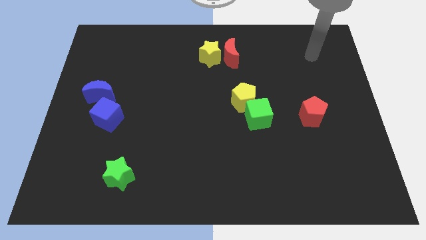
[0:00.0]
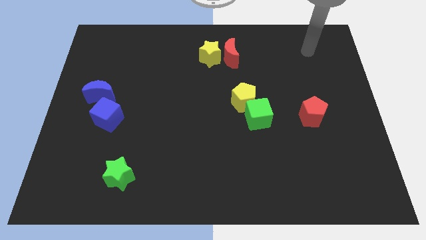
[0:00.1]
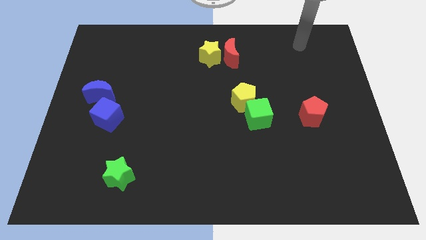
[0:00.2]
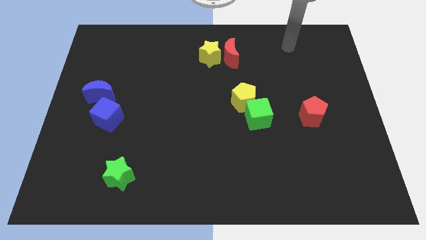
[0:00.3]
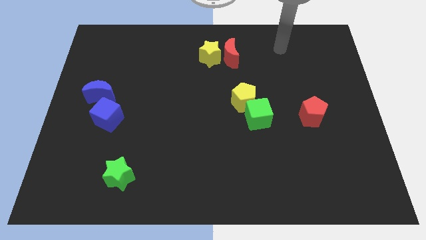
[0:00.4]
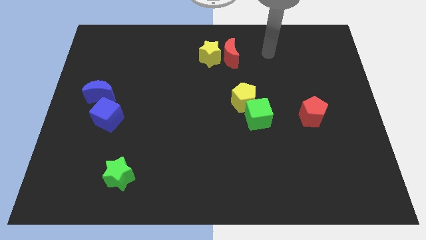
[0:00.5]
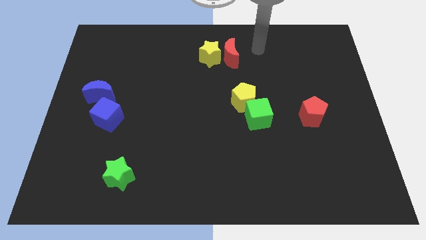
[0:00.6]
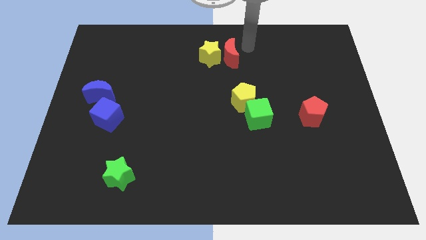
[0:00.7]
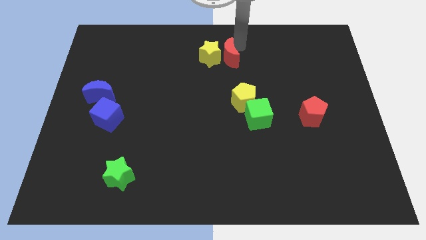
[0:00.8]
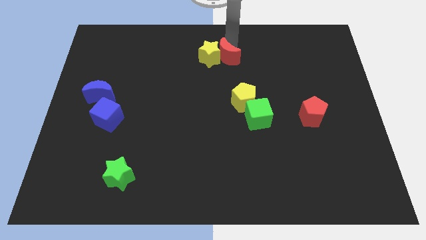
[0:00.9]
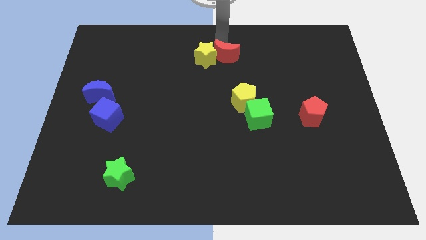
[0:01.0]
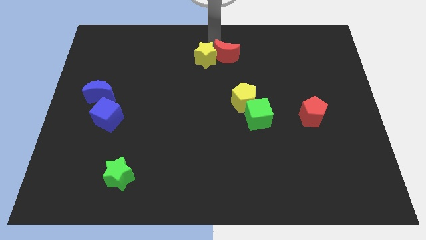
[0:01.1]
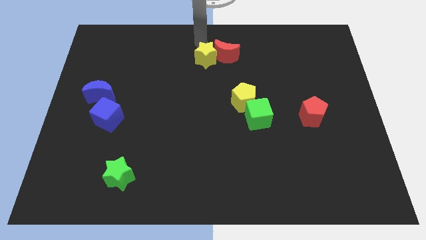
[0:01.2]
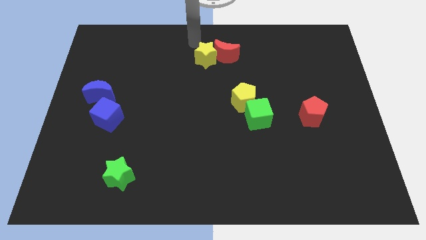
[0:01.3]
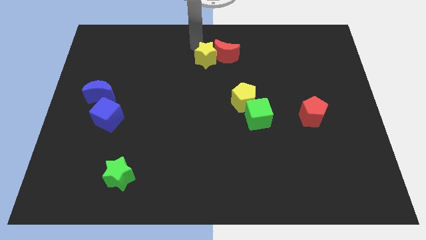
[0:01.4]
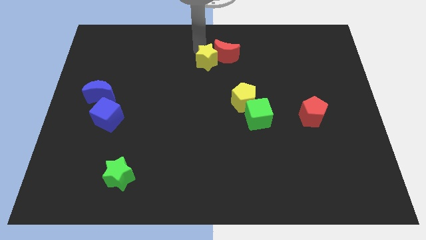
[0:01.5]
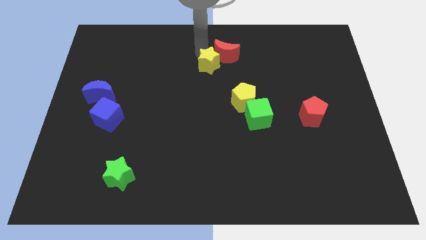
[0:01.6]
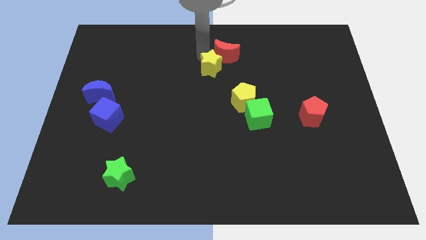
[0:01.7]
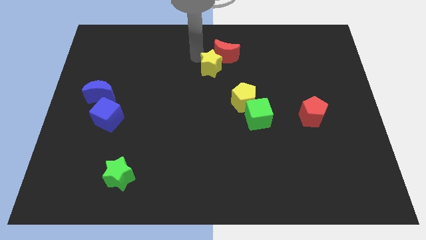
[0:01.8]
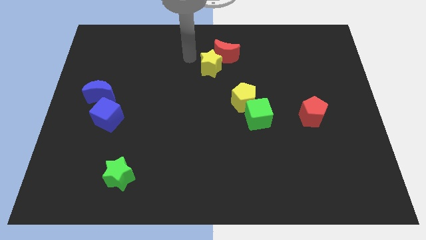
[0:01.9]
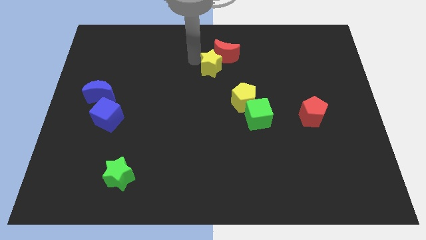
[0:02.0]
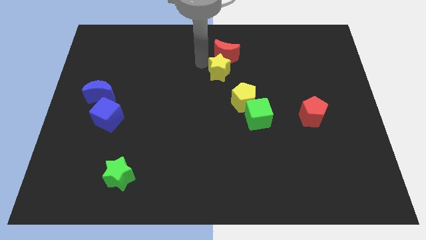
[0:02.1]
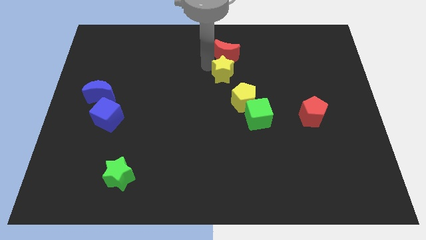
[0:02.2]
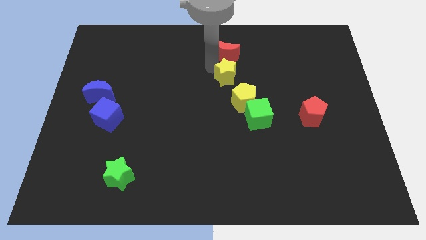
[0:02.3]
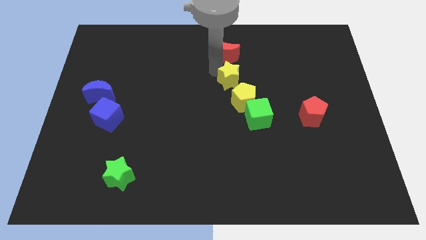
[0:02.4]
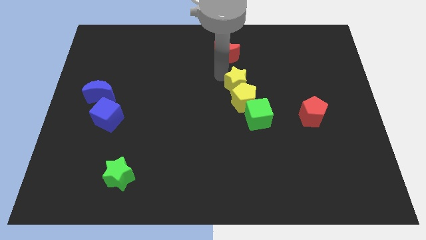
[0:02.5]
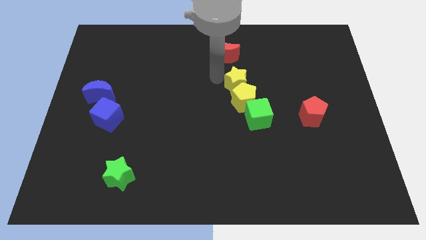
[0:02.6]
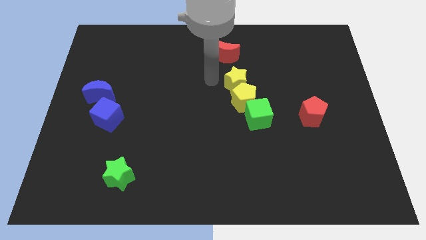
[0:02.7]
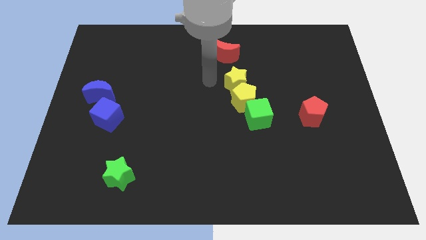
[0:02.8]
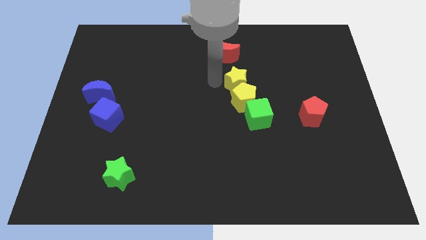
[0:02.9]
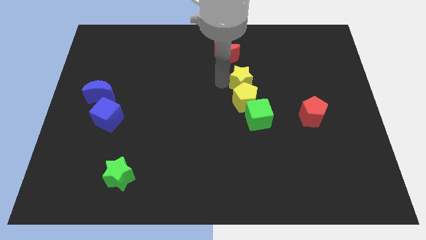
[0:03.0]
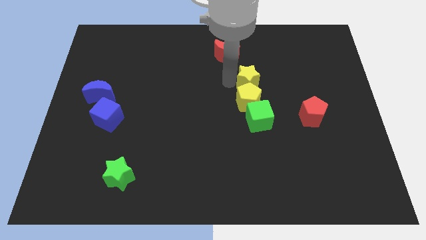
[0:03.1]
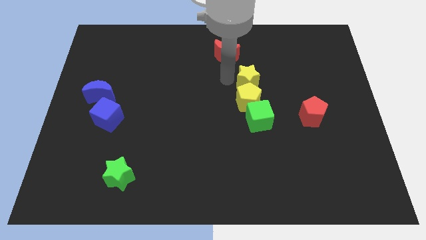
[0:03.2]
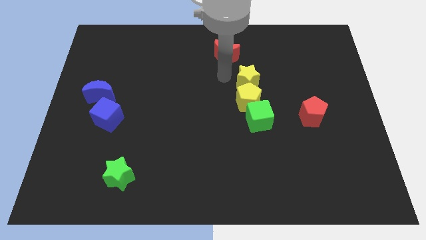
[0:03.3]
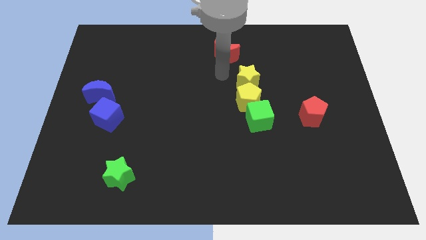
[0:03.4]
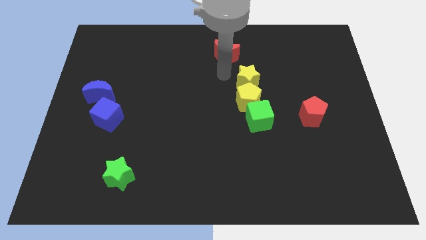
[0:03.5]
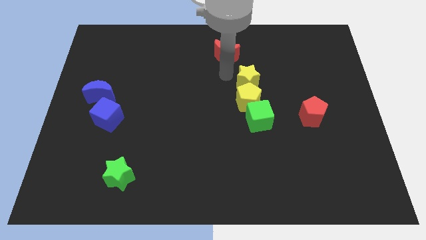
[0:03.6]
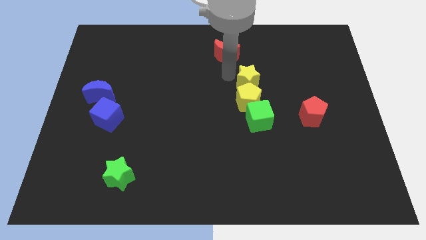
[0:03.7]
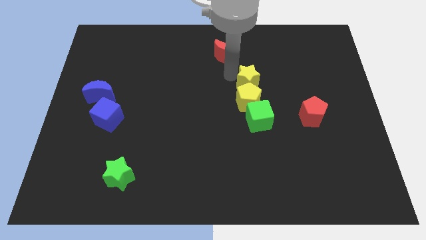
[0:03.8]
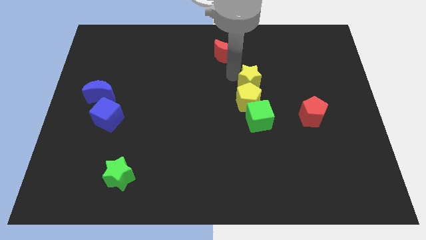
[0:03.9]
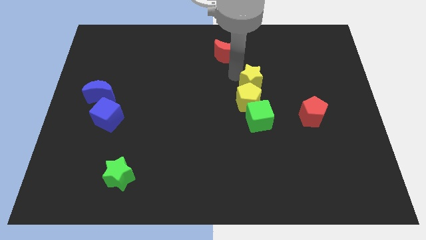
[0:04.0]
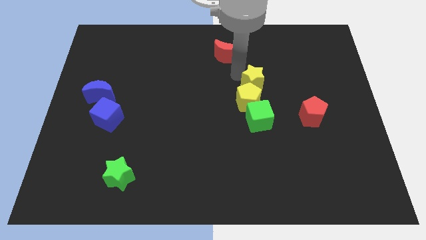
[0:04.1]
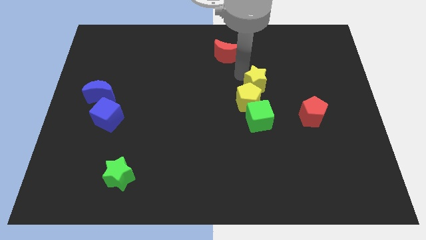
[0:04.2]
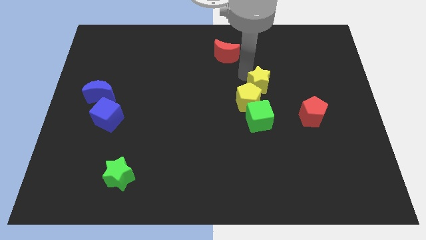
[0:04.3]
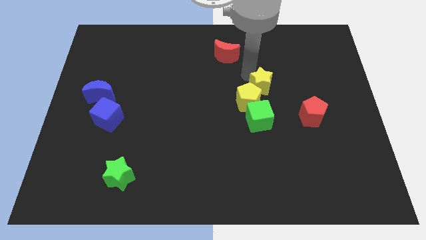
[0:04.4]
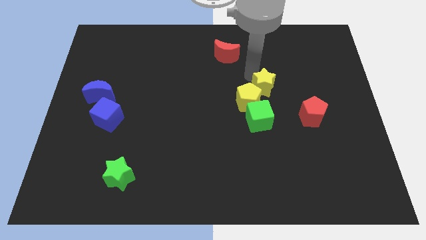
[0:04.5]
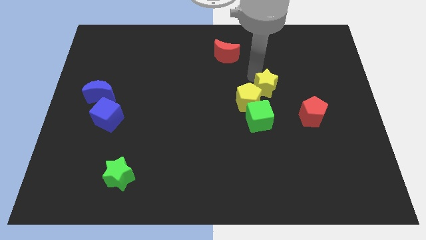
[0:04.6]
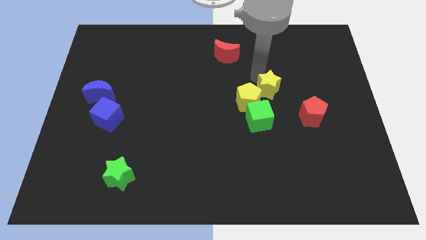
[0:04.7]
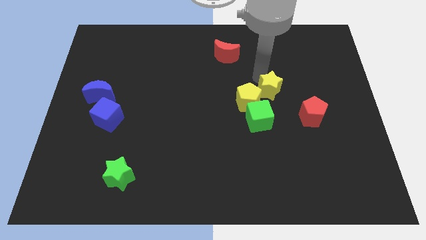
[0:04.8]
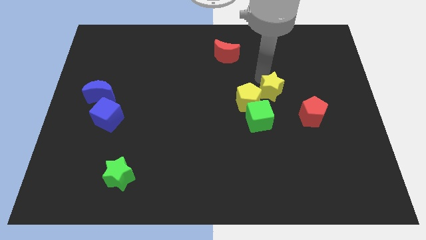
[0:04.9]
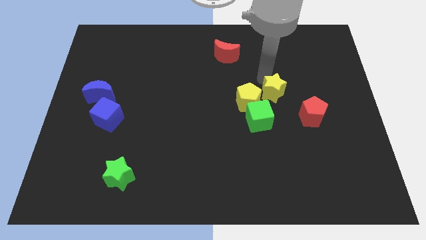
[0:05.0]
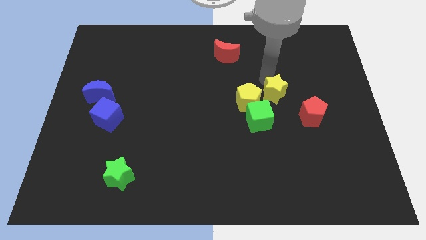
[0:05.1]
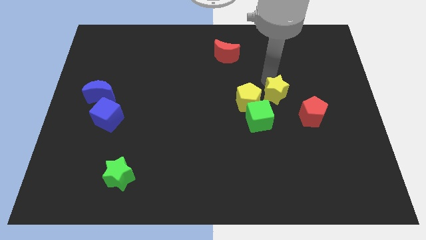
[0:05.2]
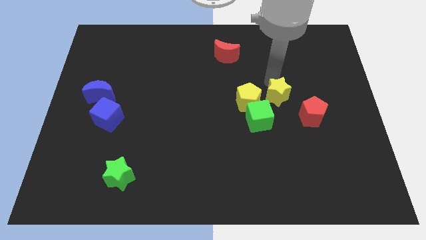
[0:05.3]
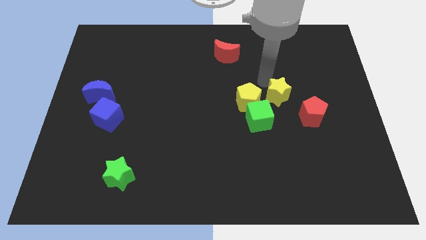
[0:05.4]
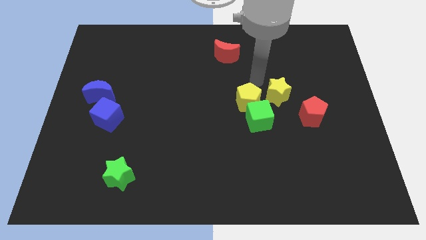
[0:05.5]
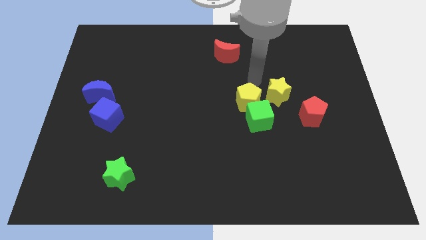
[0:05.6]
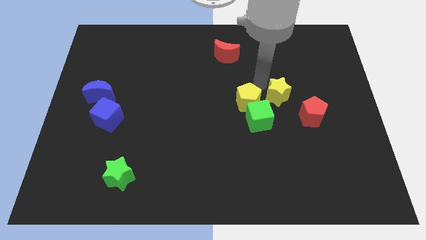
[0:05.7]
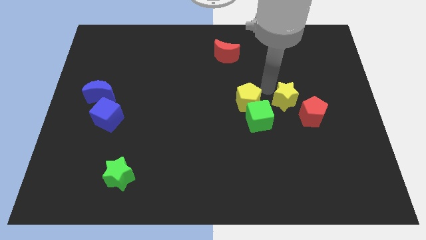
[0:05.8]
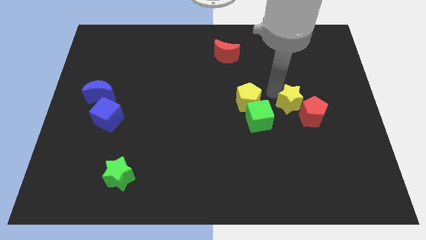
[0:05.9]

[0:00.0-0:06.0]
put the yellow star close to the red pentagon
